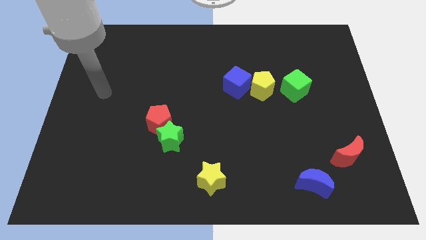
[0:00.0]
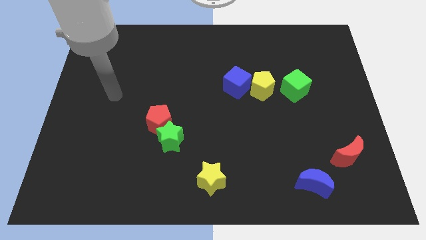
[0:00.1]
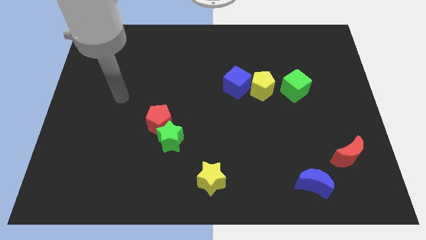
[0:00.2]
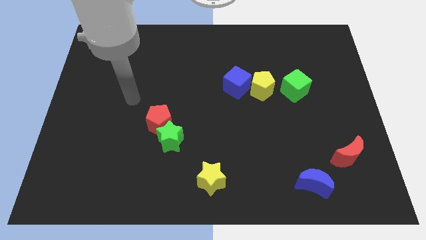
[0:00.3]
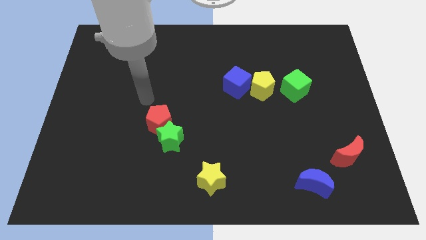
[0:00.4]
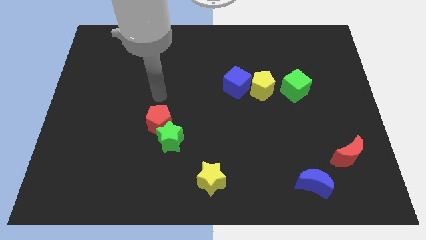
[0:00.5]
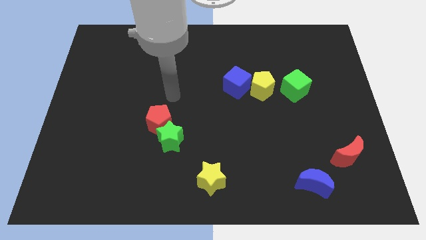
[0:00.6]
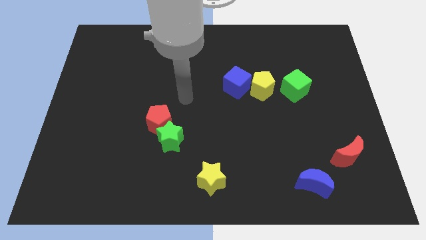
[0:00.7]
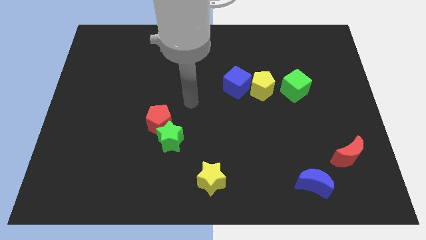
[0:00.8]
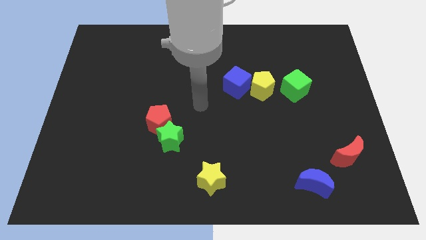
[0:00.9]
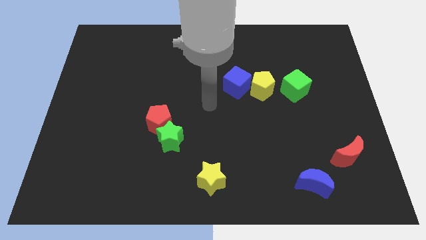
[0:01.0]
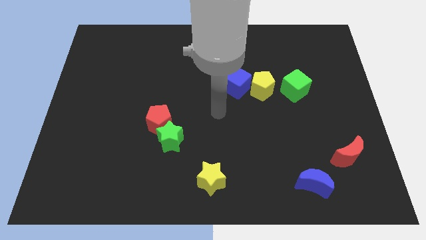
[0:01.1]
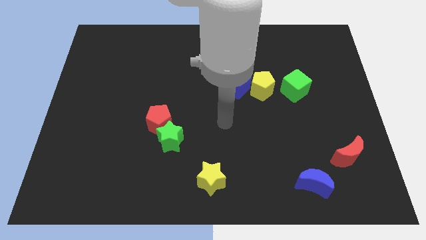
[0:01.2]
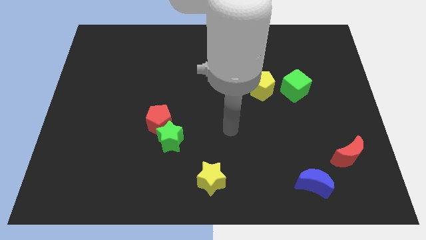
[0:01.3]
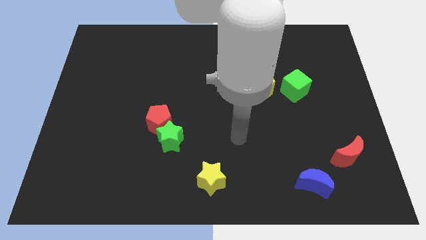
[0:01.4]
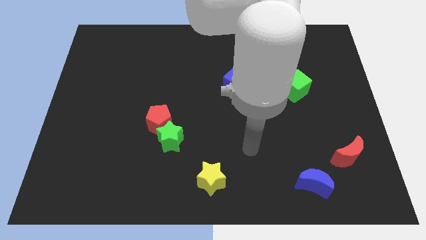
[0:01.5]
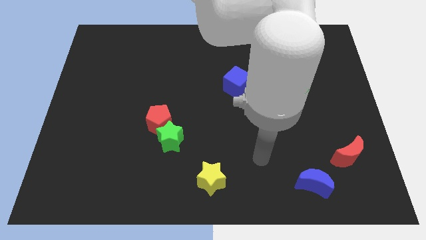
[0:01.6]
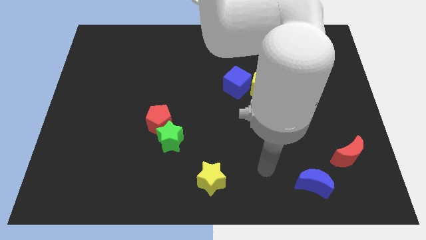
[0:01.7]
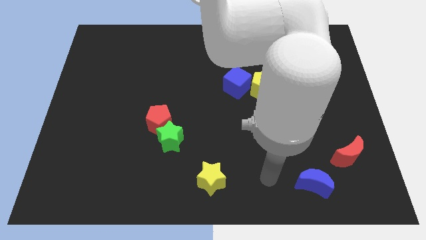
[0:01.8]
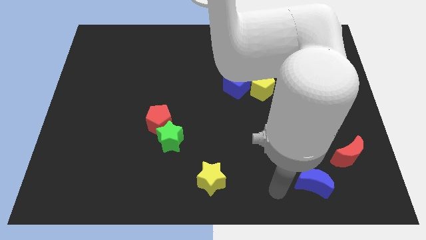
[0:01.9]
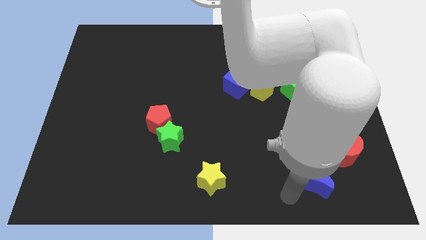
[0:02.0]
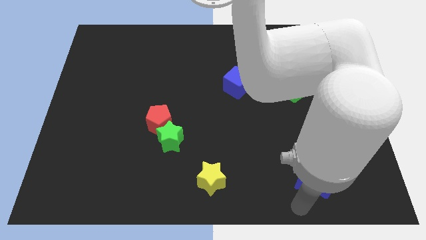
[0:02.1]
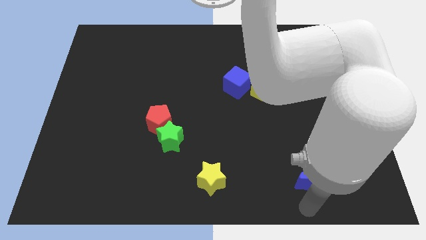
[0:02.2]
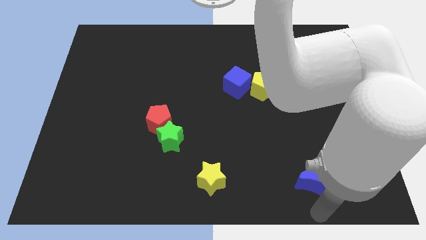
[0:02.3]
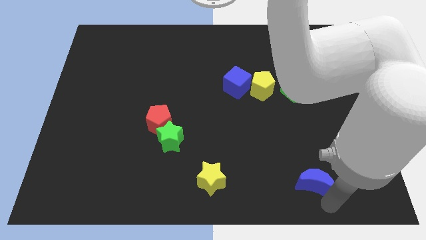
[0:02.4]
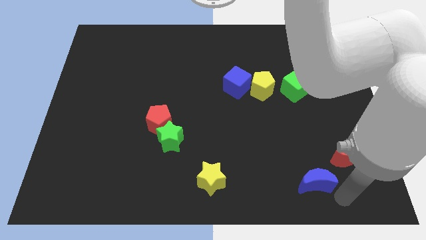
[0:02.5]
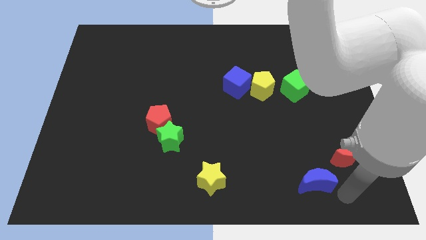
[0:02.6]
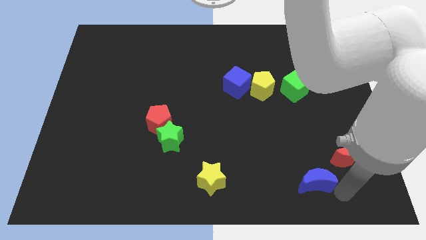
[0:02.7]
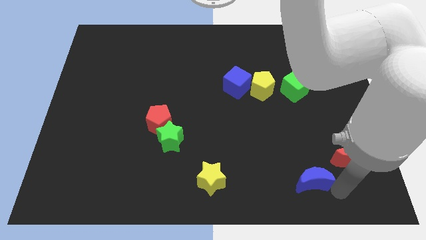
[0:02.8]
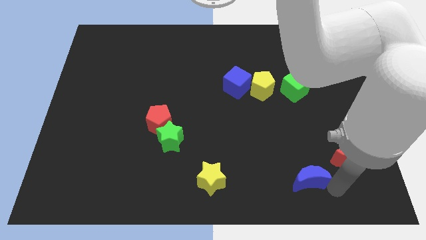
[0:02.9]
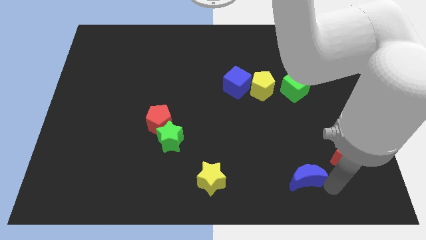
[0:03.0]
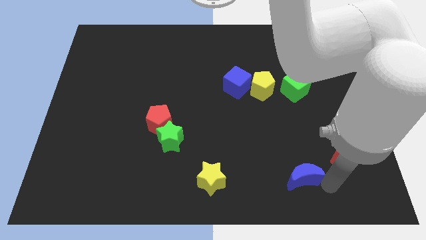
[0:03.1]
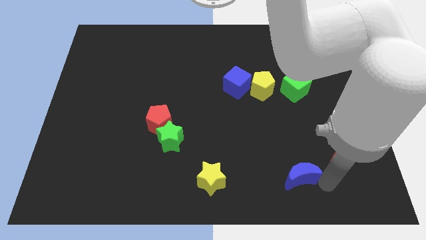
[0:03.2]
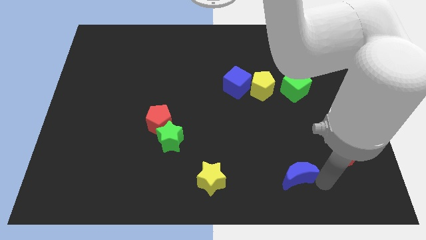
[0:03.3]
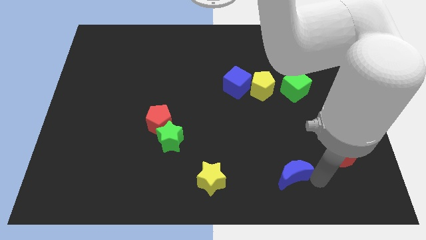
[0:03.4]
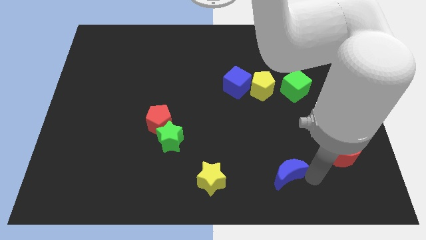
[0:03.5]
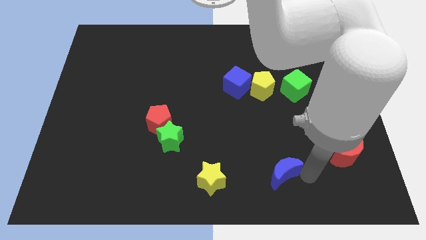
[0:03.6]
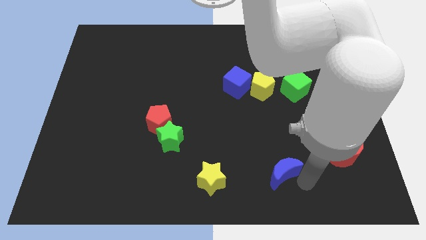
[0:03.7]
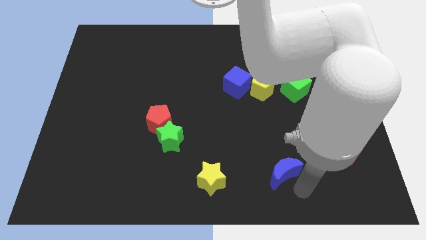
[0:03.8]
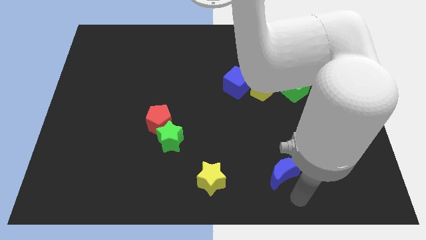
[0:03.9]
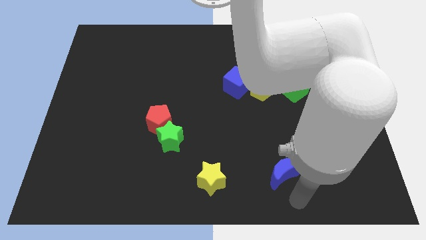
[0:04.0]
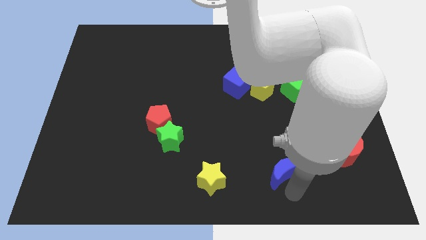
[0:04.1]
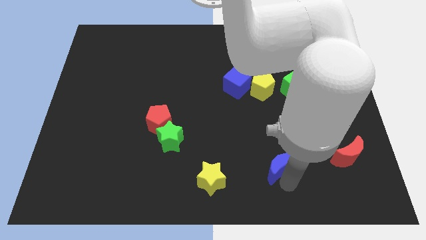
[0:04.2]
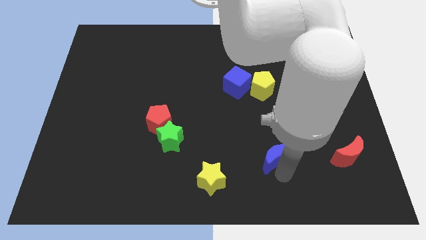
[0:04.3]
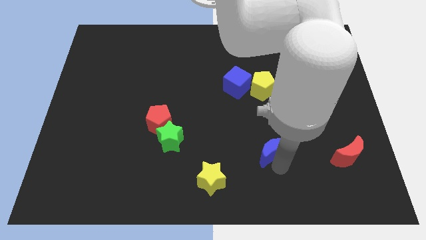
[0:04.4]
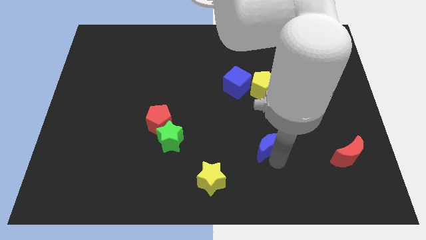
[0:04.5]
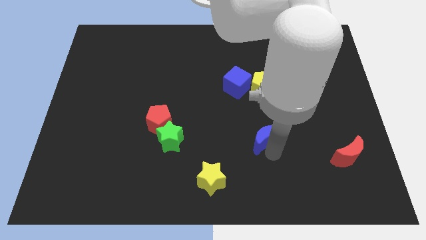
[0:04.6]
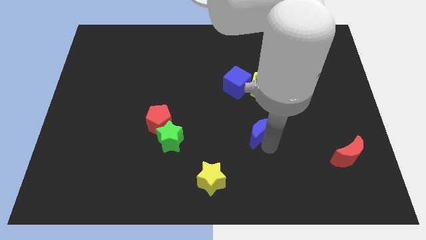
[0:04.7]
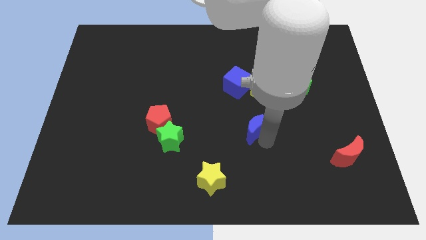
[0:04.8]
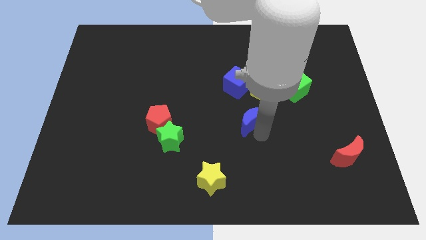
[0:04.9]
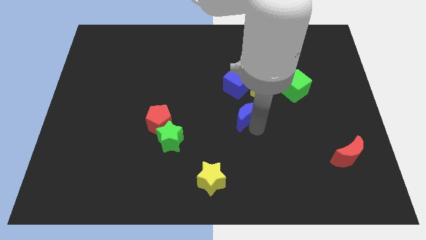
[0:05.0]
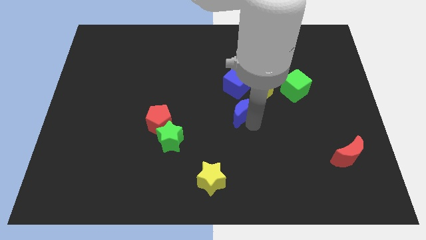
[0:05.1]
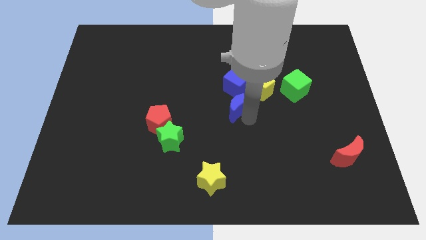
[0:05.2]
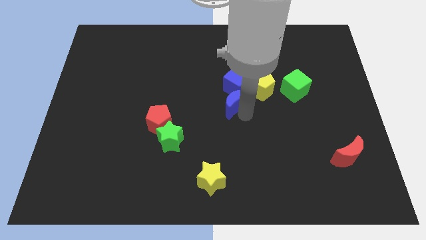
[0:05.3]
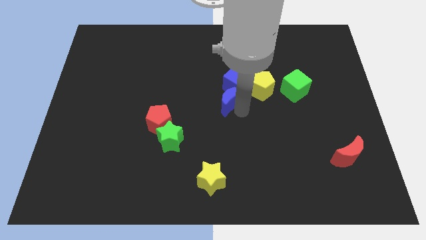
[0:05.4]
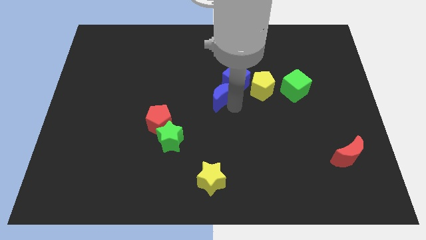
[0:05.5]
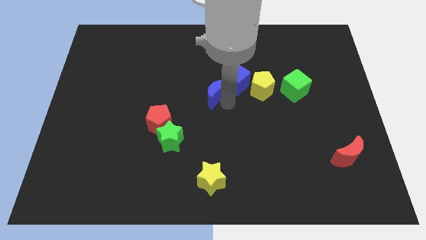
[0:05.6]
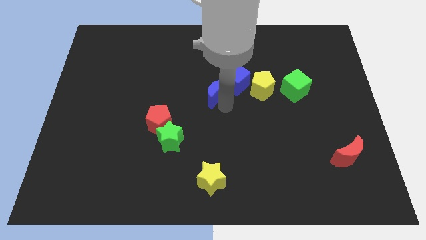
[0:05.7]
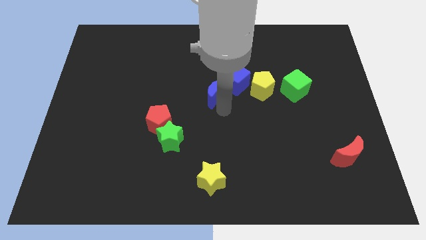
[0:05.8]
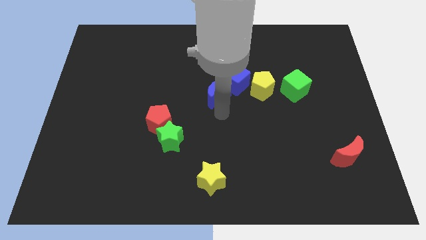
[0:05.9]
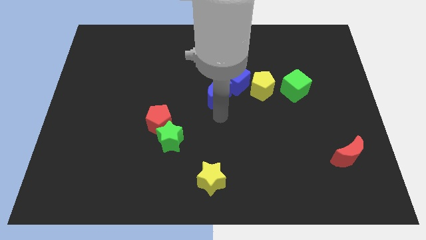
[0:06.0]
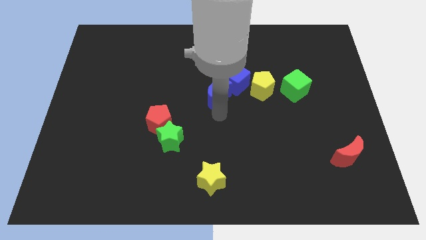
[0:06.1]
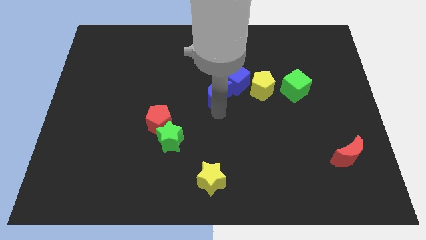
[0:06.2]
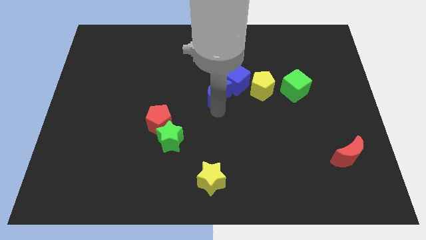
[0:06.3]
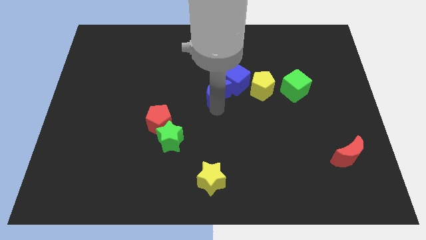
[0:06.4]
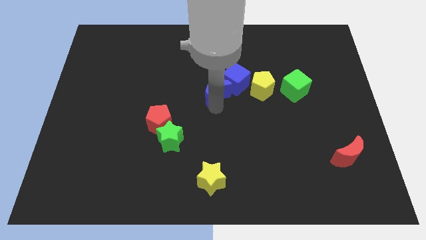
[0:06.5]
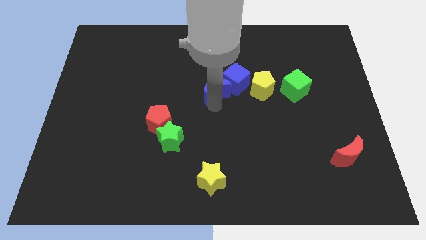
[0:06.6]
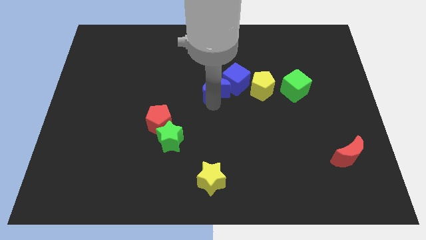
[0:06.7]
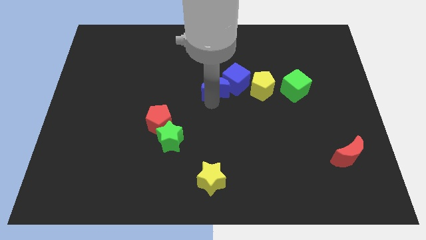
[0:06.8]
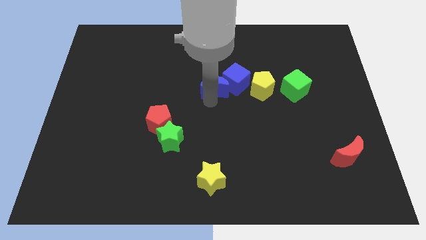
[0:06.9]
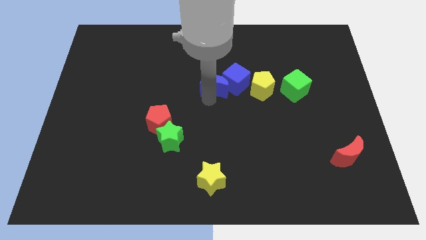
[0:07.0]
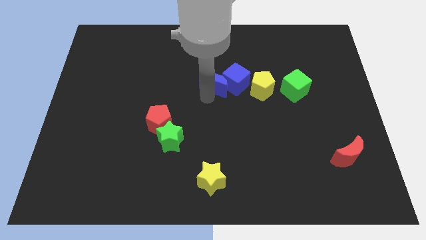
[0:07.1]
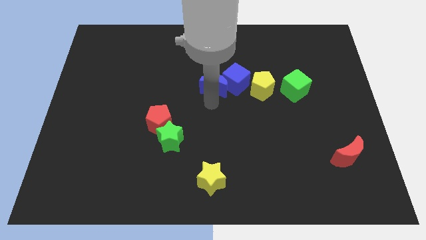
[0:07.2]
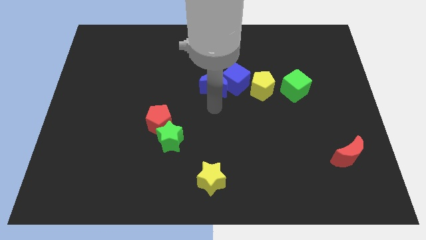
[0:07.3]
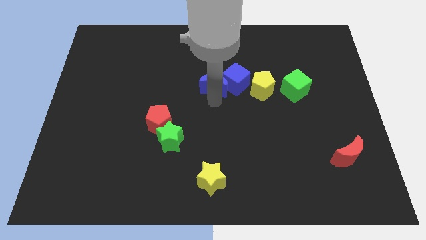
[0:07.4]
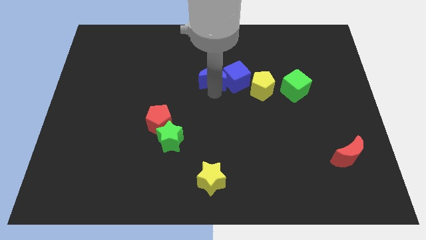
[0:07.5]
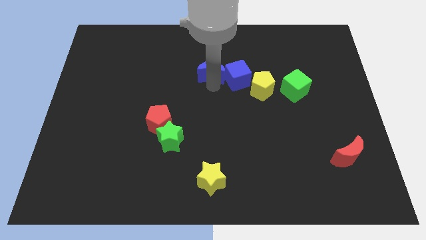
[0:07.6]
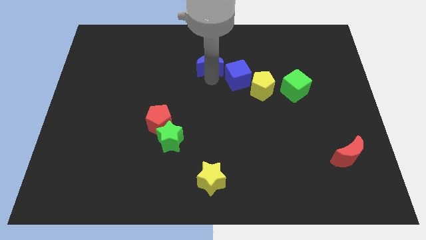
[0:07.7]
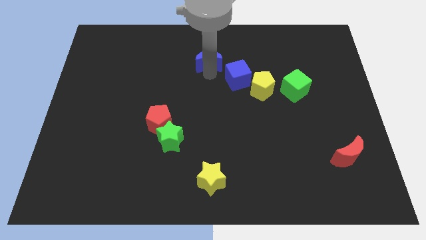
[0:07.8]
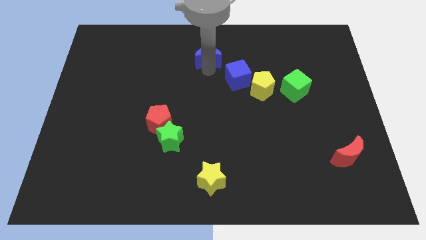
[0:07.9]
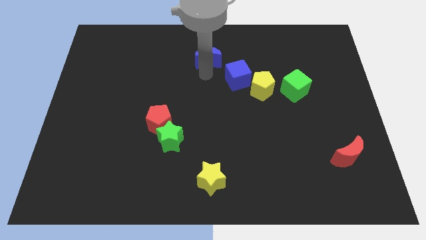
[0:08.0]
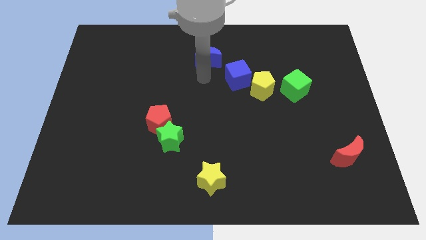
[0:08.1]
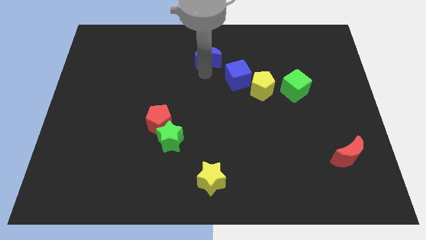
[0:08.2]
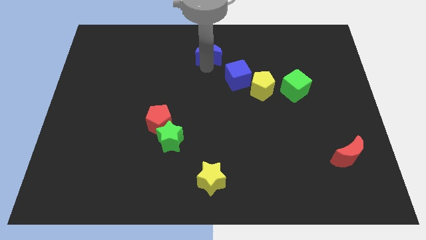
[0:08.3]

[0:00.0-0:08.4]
put the blue moon to the top
